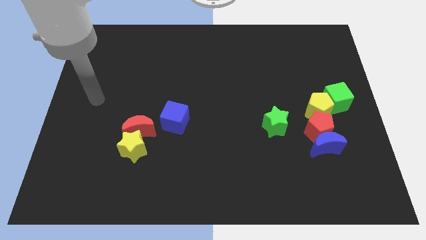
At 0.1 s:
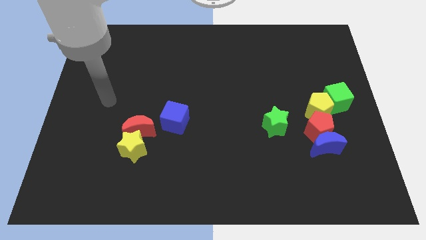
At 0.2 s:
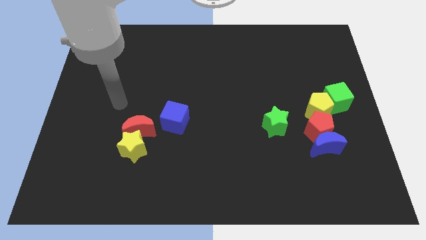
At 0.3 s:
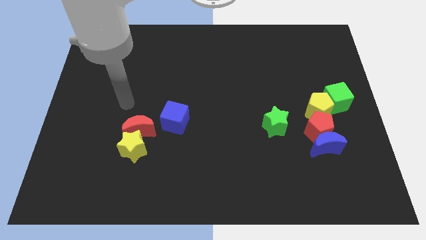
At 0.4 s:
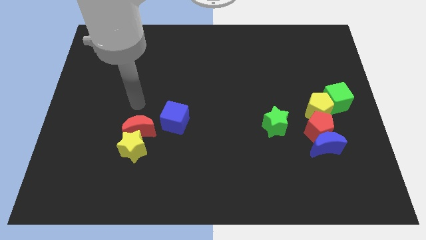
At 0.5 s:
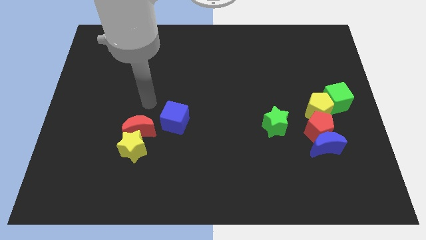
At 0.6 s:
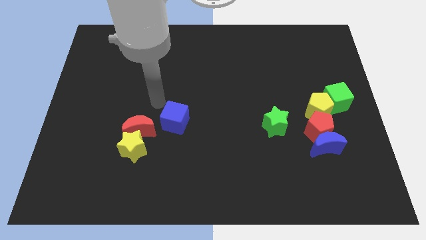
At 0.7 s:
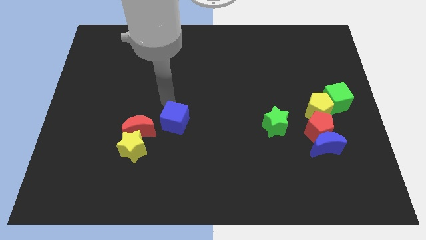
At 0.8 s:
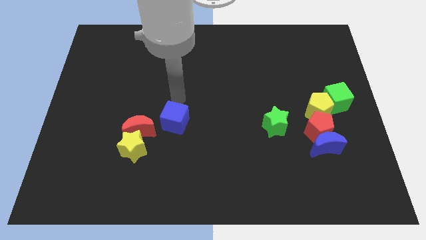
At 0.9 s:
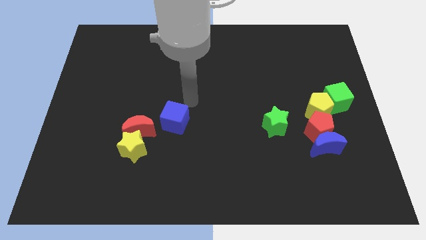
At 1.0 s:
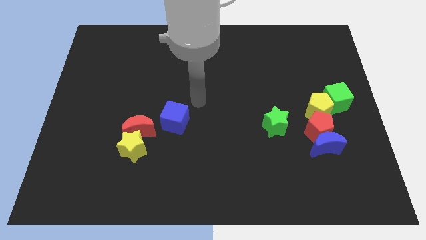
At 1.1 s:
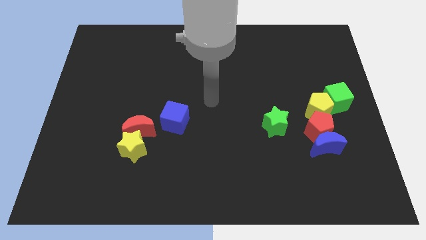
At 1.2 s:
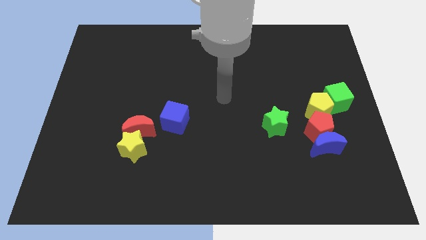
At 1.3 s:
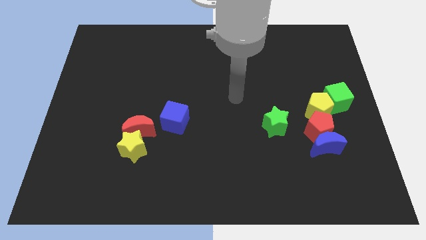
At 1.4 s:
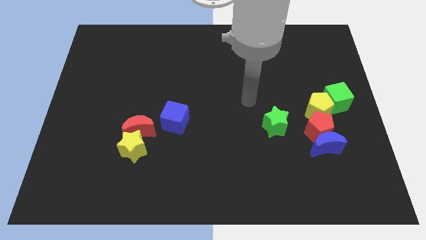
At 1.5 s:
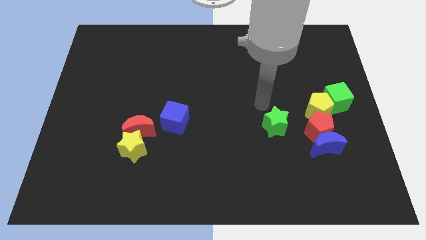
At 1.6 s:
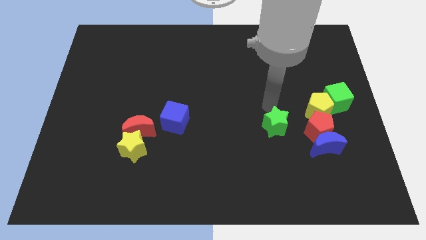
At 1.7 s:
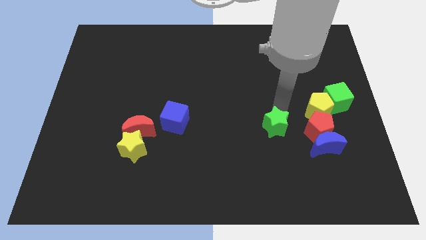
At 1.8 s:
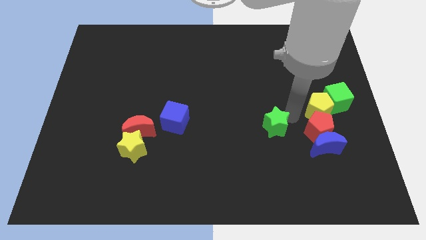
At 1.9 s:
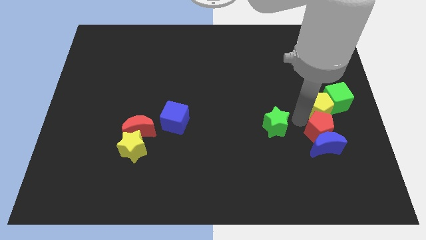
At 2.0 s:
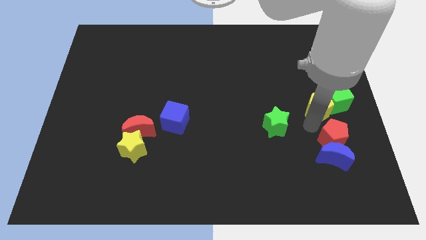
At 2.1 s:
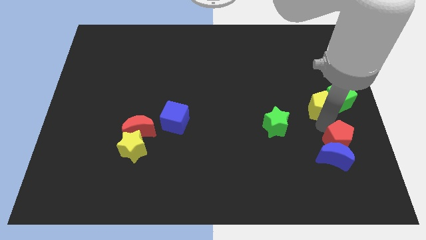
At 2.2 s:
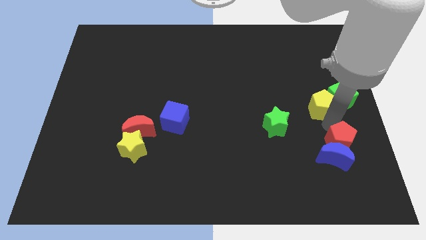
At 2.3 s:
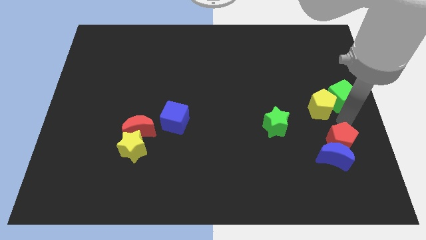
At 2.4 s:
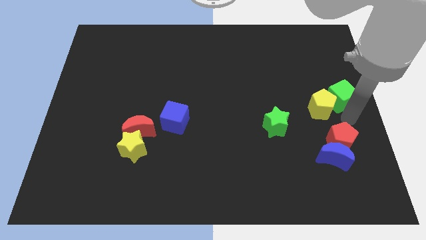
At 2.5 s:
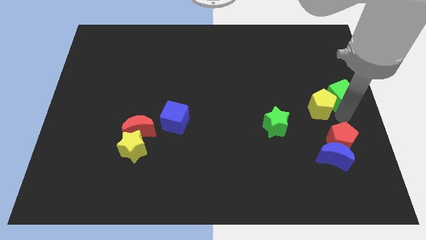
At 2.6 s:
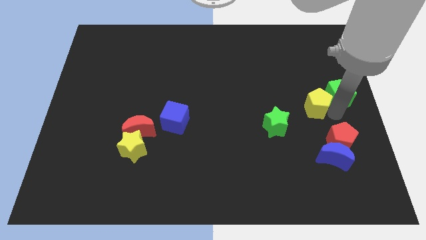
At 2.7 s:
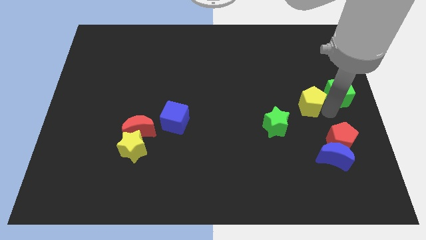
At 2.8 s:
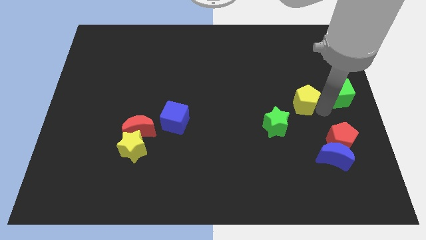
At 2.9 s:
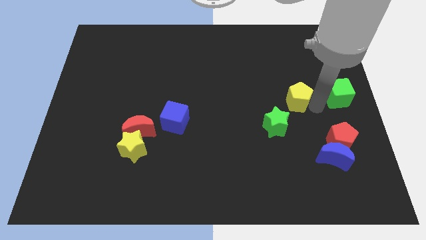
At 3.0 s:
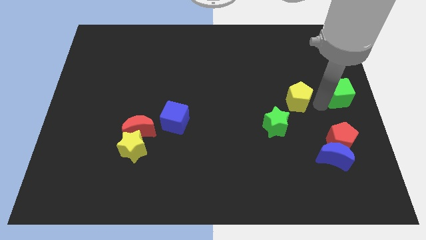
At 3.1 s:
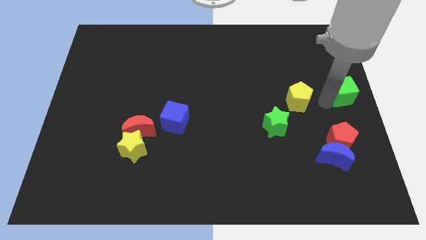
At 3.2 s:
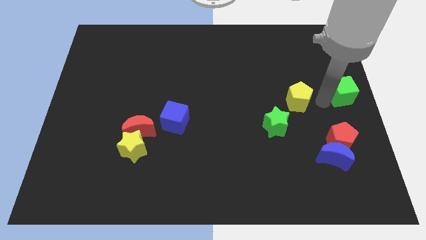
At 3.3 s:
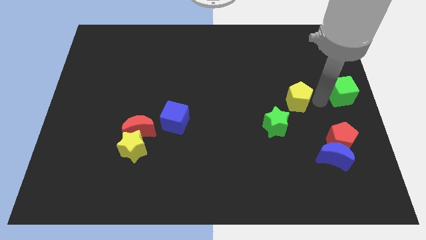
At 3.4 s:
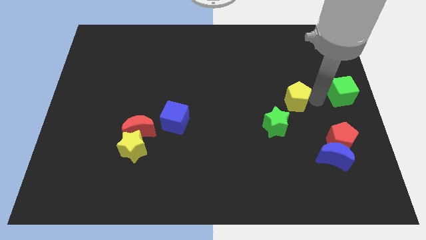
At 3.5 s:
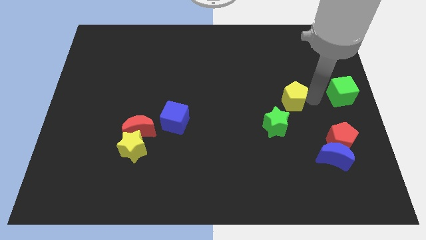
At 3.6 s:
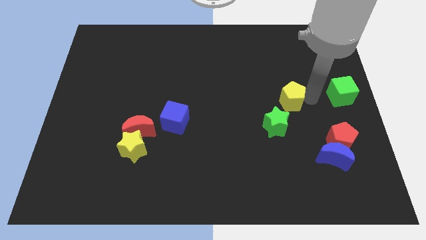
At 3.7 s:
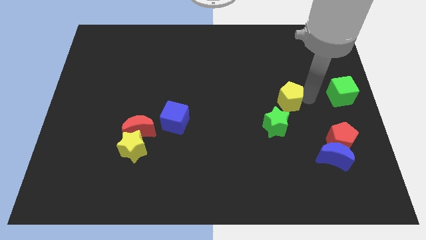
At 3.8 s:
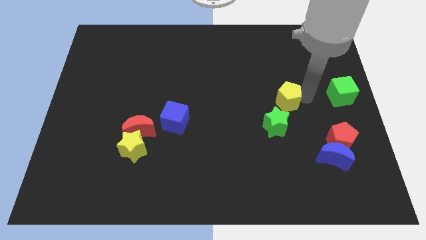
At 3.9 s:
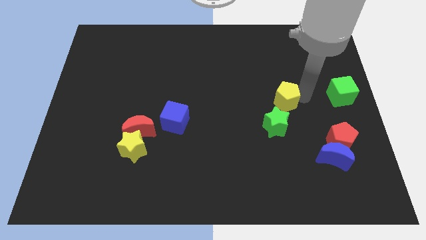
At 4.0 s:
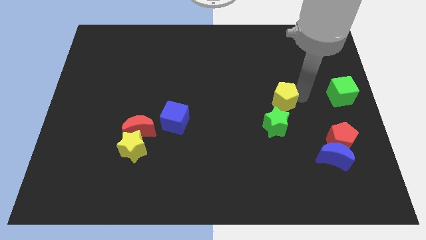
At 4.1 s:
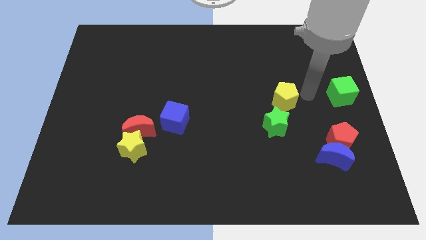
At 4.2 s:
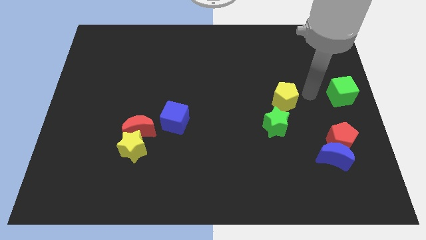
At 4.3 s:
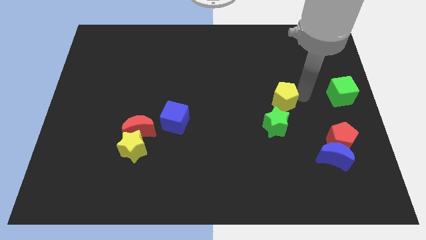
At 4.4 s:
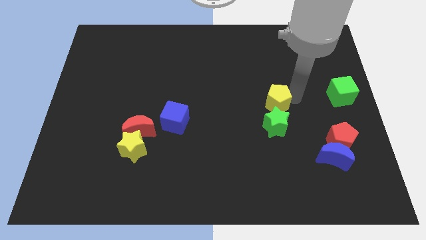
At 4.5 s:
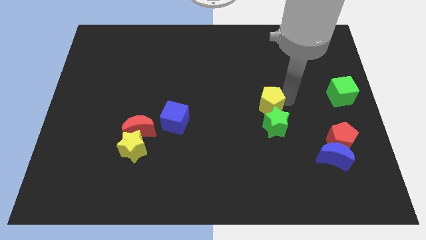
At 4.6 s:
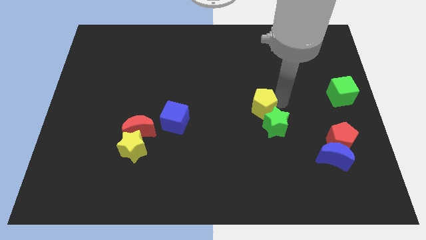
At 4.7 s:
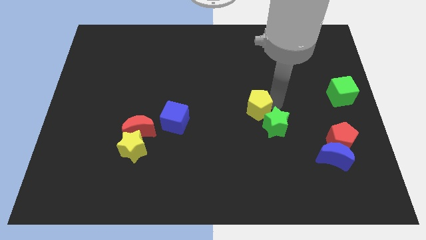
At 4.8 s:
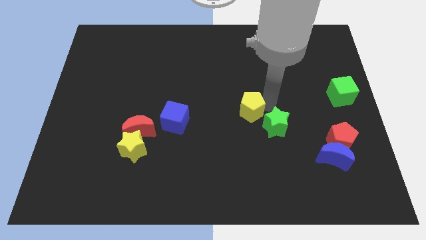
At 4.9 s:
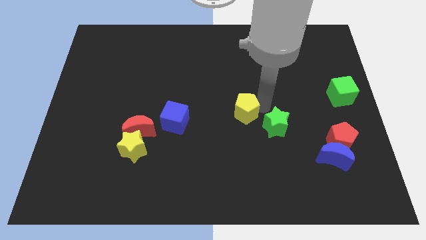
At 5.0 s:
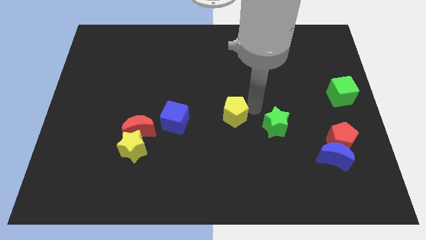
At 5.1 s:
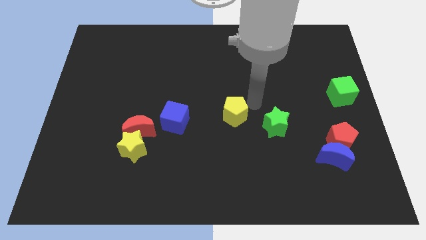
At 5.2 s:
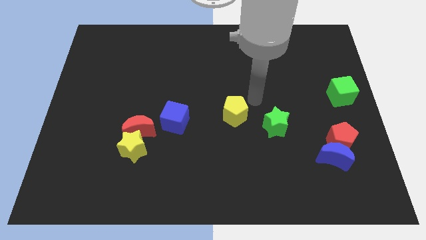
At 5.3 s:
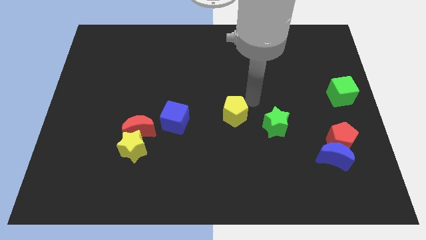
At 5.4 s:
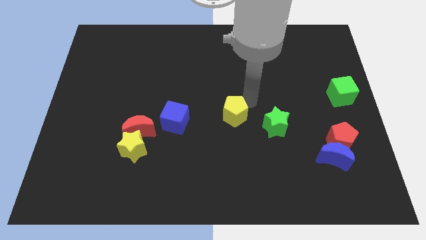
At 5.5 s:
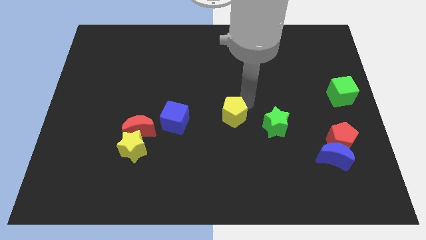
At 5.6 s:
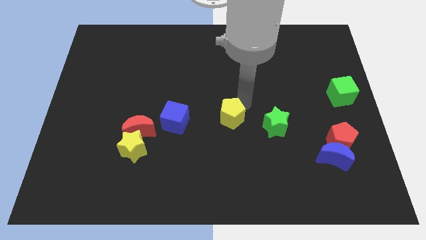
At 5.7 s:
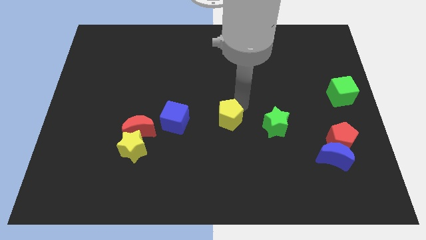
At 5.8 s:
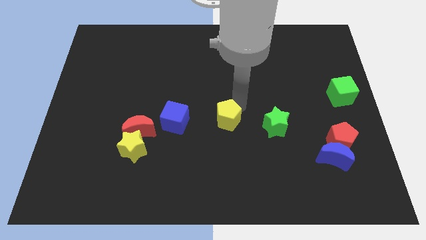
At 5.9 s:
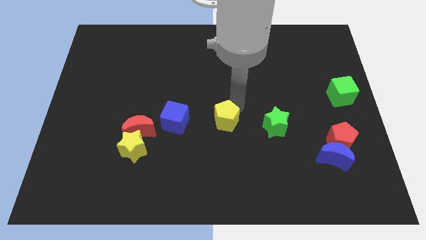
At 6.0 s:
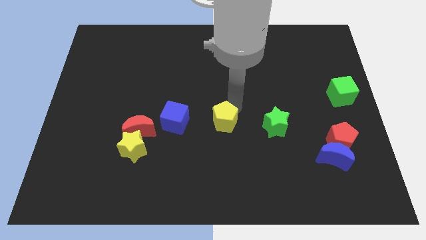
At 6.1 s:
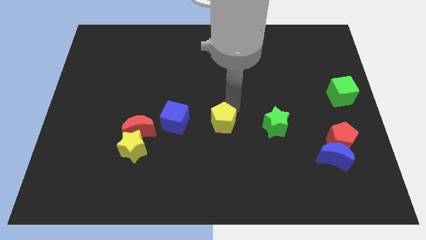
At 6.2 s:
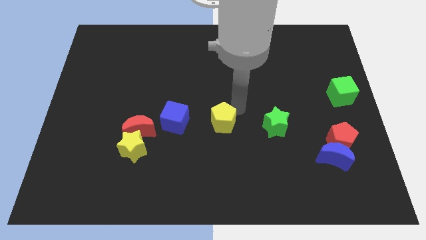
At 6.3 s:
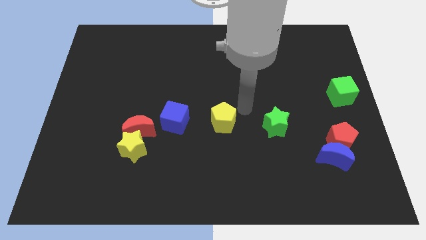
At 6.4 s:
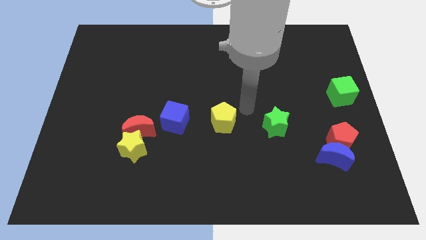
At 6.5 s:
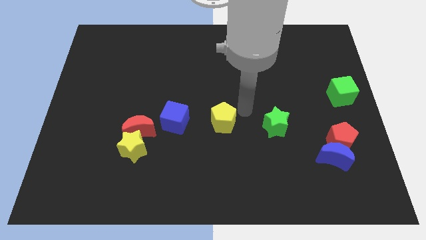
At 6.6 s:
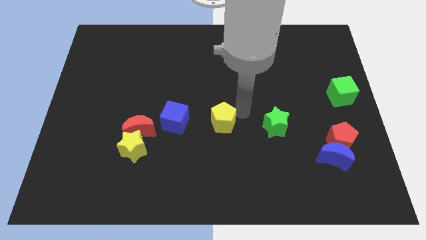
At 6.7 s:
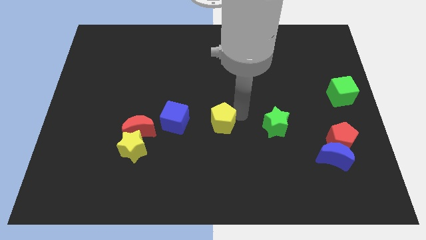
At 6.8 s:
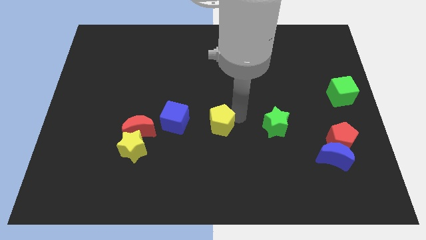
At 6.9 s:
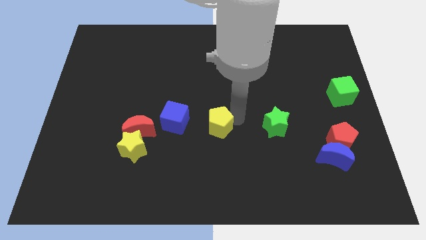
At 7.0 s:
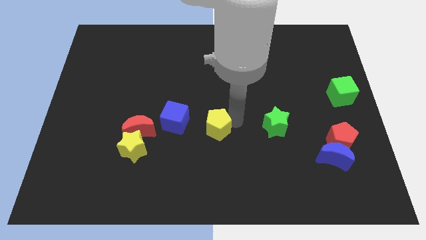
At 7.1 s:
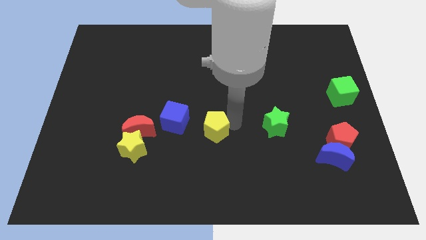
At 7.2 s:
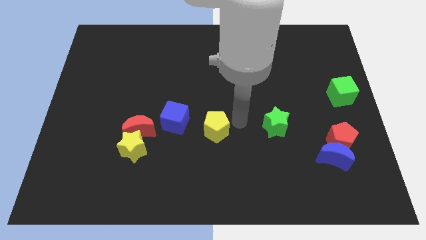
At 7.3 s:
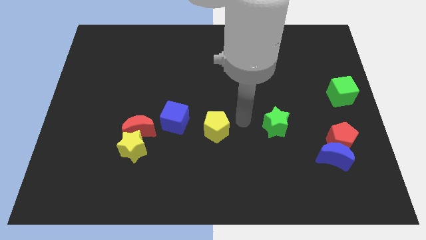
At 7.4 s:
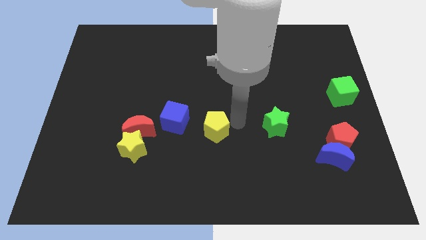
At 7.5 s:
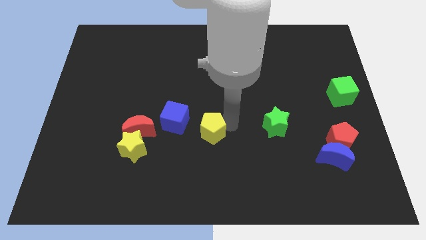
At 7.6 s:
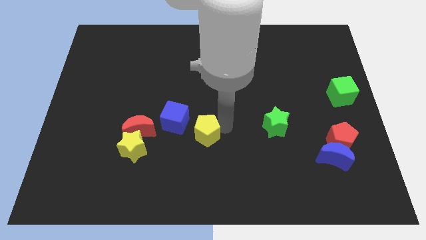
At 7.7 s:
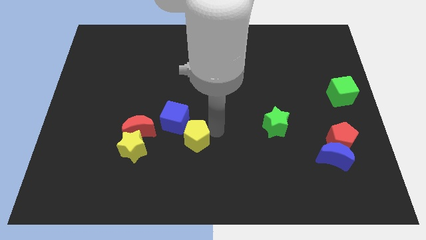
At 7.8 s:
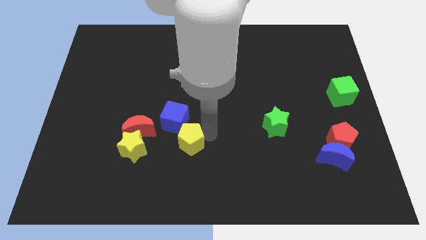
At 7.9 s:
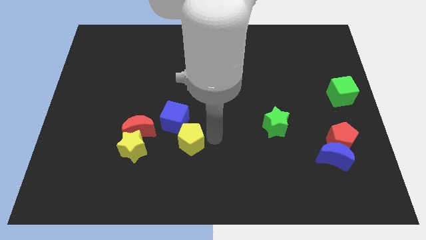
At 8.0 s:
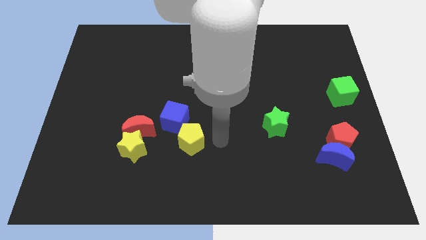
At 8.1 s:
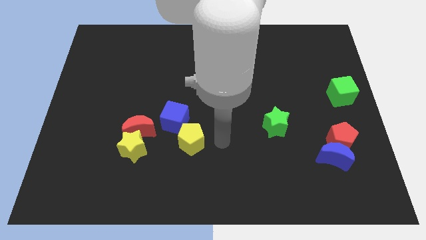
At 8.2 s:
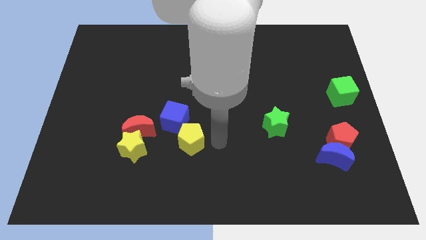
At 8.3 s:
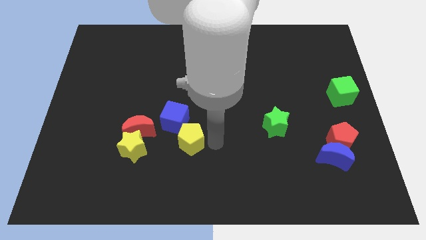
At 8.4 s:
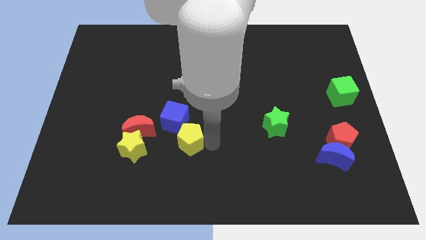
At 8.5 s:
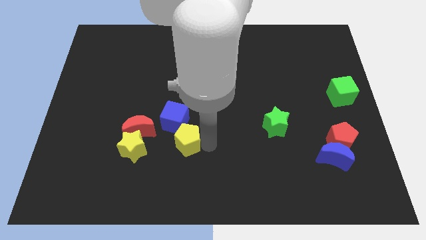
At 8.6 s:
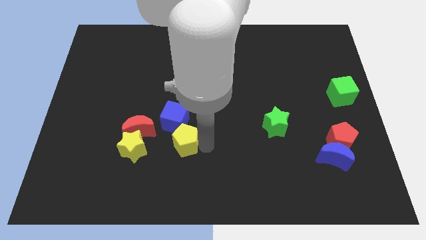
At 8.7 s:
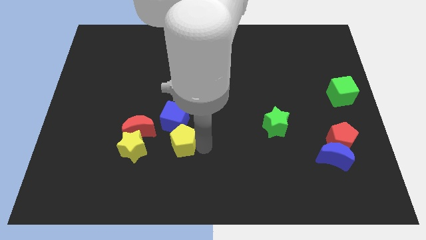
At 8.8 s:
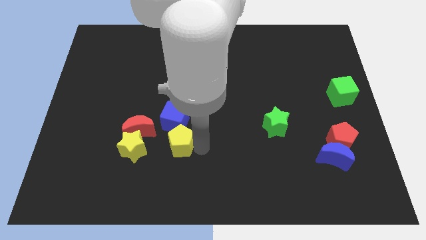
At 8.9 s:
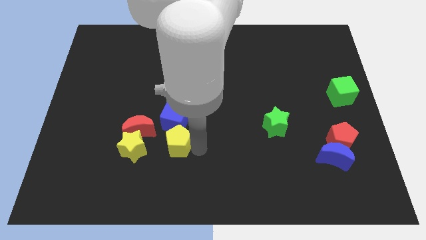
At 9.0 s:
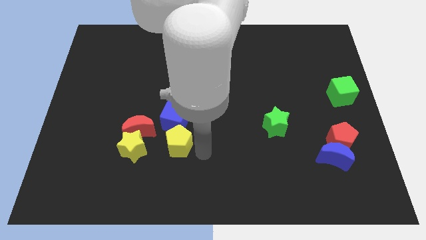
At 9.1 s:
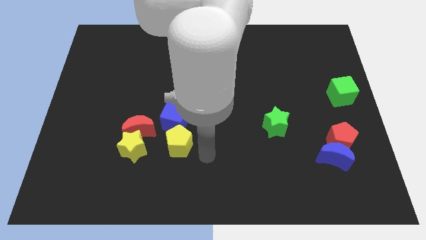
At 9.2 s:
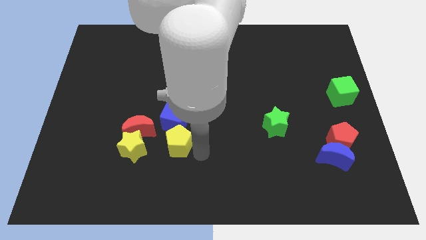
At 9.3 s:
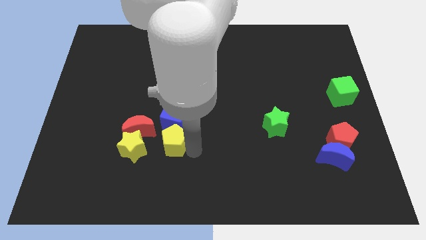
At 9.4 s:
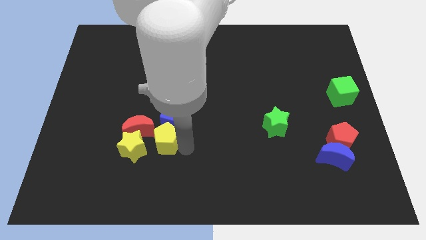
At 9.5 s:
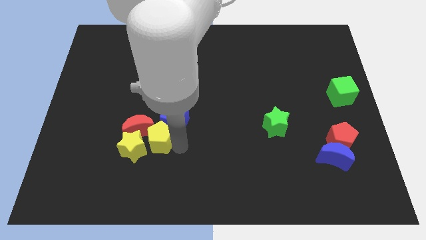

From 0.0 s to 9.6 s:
move the yellow pentagon to the red moon
